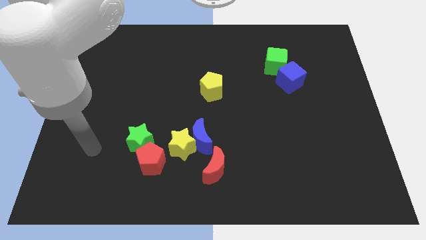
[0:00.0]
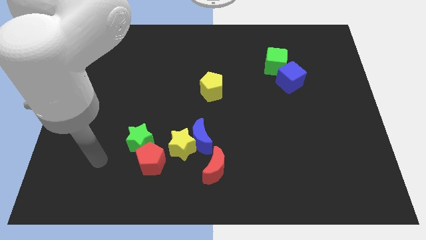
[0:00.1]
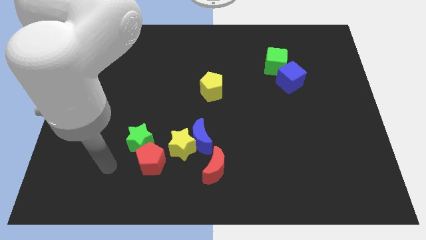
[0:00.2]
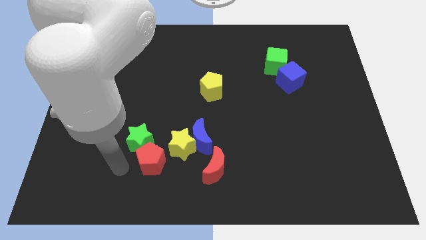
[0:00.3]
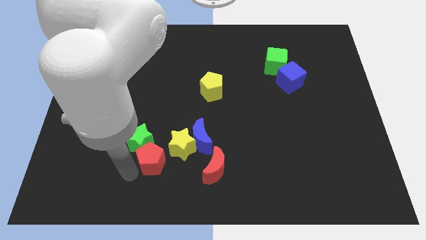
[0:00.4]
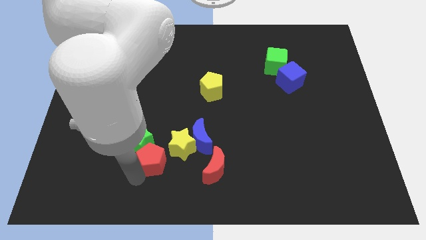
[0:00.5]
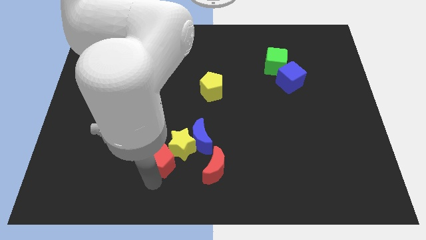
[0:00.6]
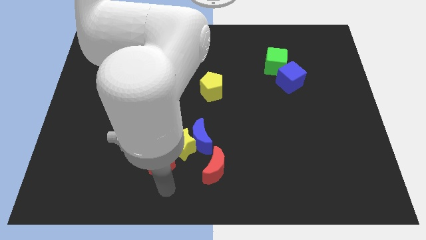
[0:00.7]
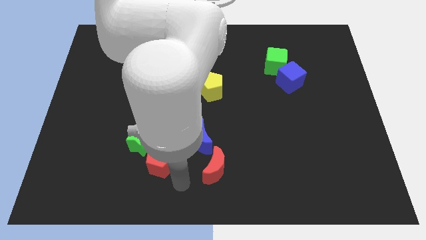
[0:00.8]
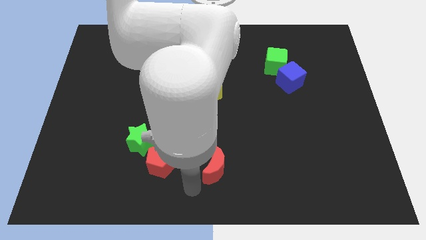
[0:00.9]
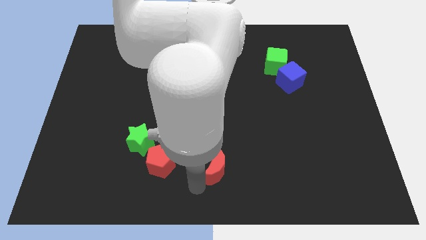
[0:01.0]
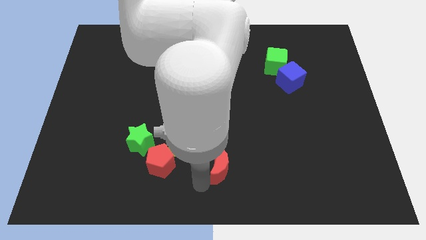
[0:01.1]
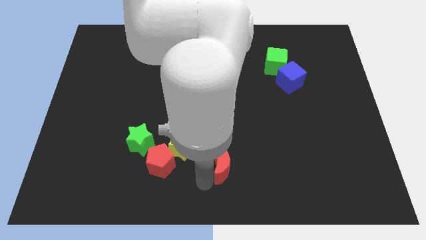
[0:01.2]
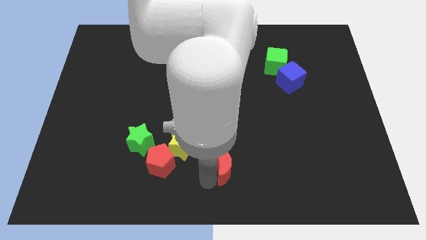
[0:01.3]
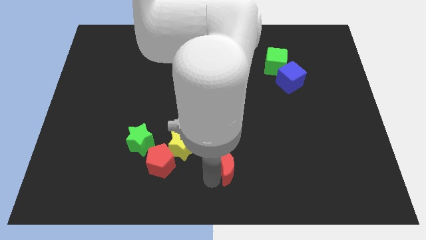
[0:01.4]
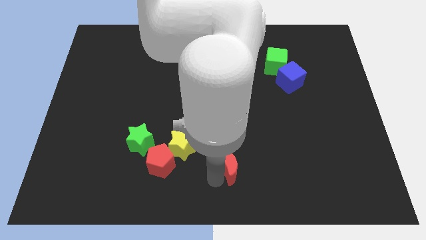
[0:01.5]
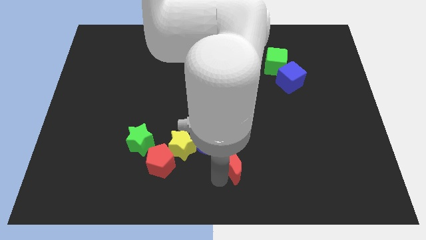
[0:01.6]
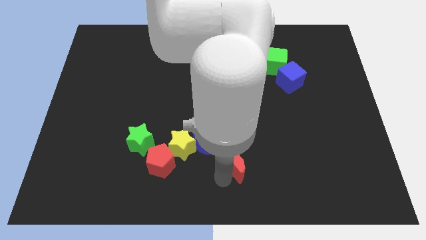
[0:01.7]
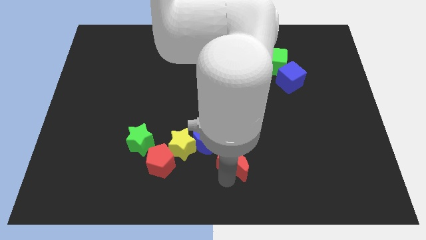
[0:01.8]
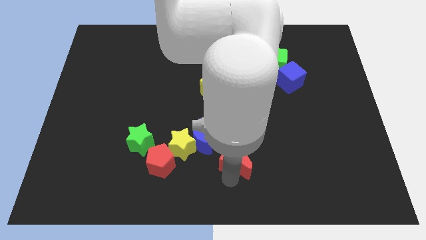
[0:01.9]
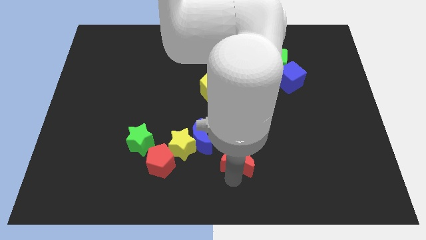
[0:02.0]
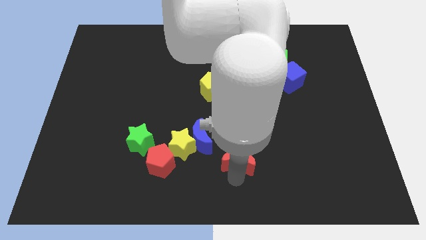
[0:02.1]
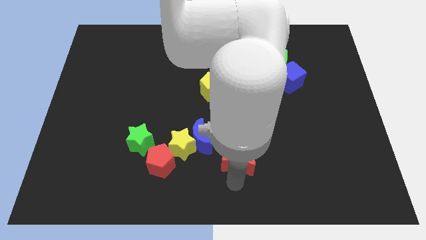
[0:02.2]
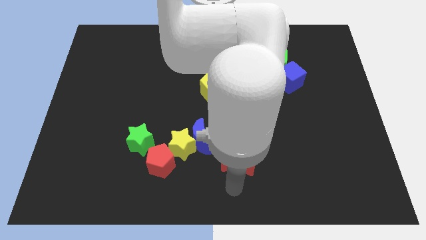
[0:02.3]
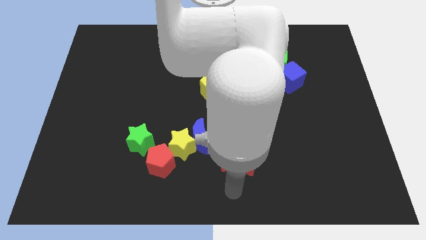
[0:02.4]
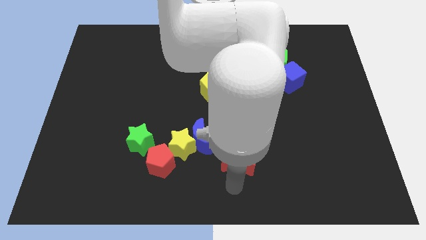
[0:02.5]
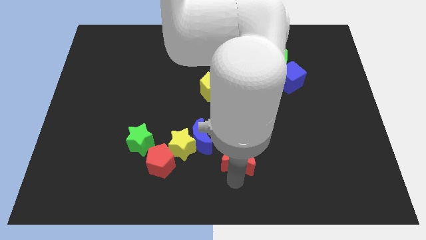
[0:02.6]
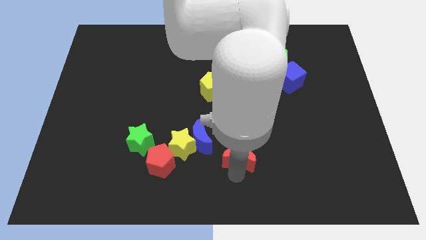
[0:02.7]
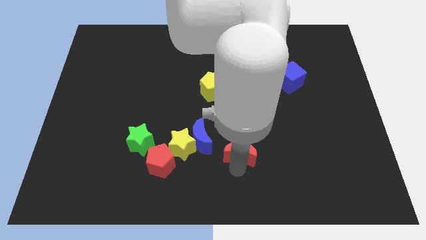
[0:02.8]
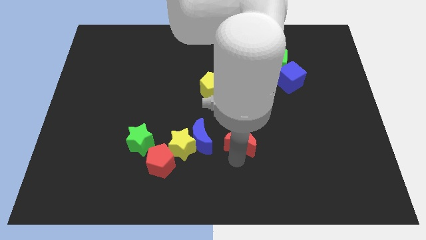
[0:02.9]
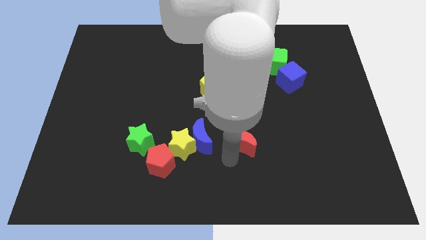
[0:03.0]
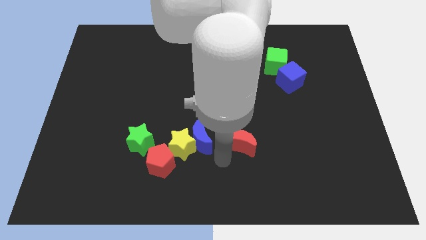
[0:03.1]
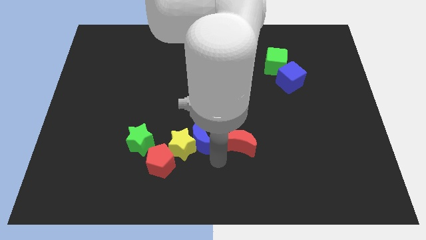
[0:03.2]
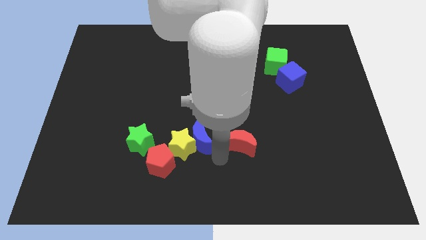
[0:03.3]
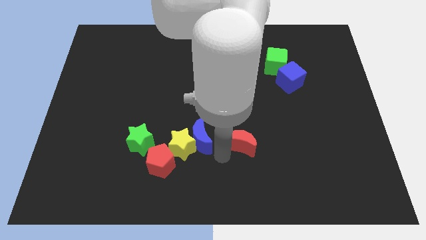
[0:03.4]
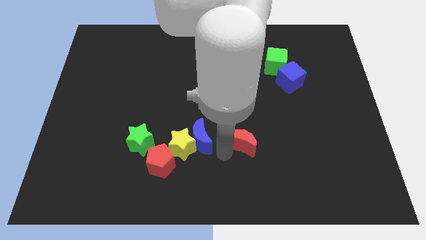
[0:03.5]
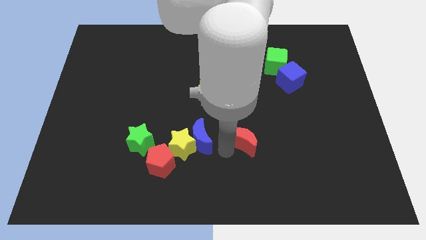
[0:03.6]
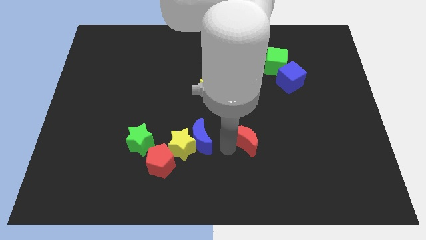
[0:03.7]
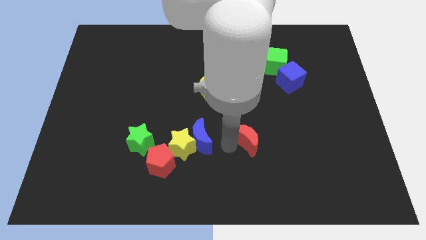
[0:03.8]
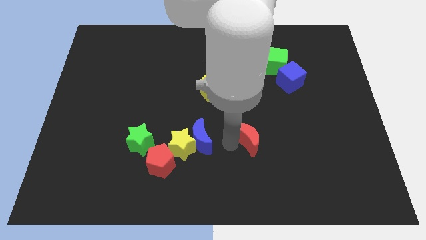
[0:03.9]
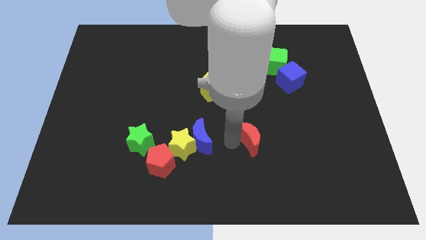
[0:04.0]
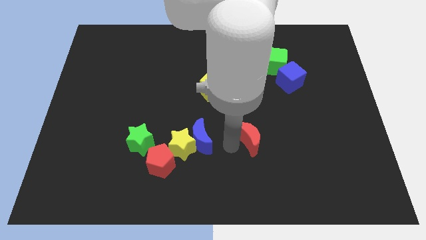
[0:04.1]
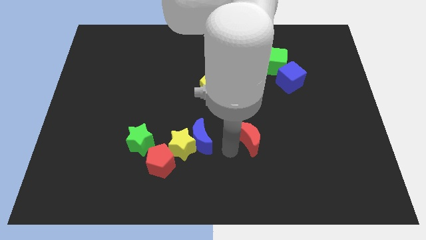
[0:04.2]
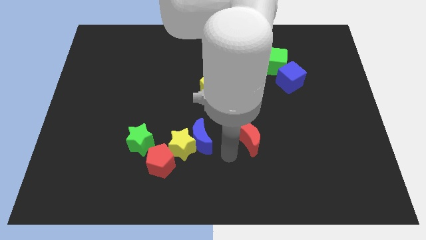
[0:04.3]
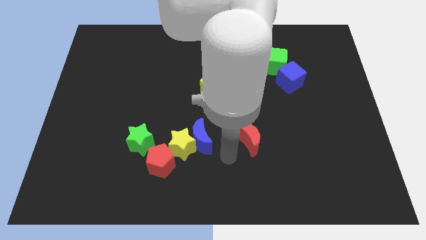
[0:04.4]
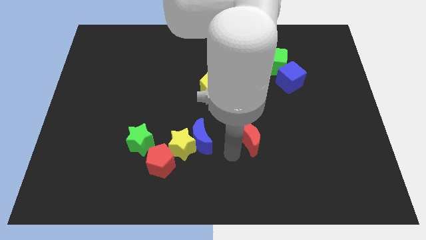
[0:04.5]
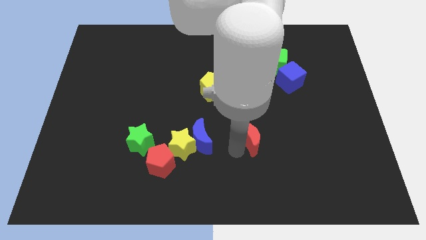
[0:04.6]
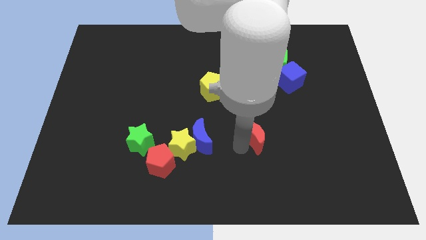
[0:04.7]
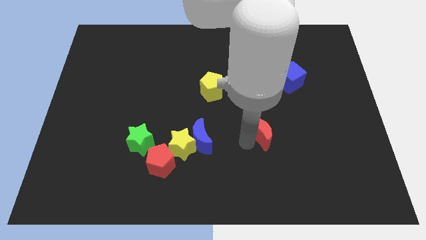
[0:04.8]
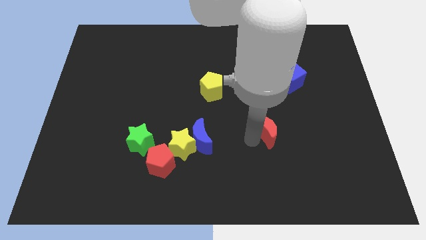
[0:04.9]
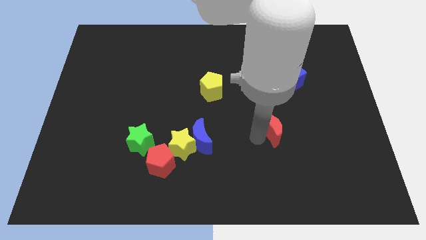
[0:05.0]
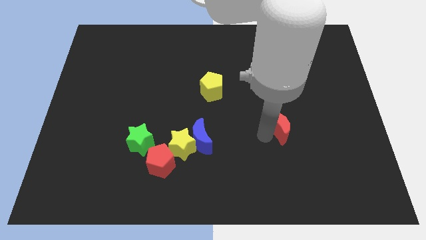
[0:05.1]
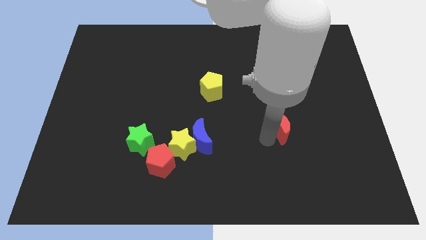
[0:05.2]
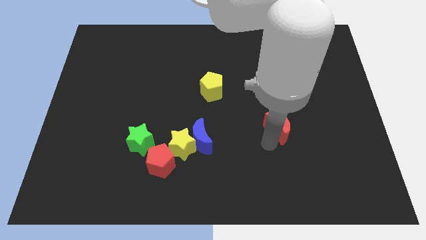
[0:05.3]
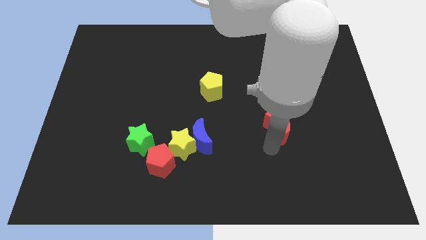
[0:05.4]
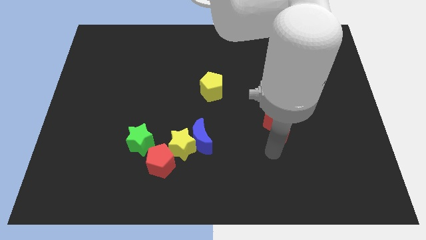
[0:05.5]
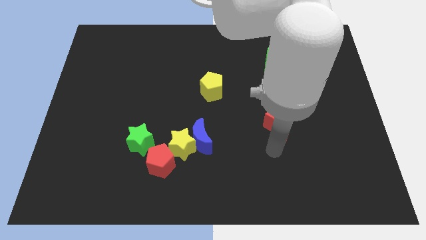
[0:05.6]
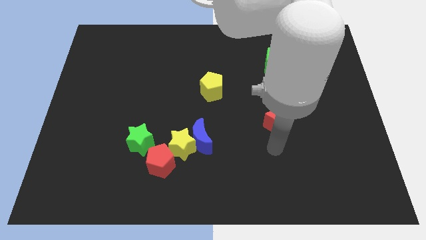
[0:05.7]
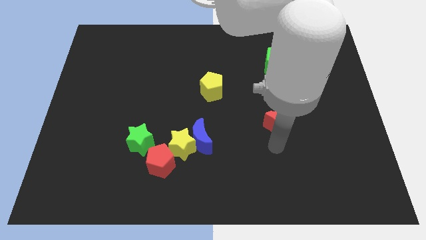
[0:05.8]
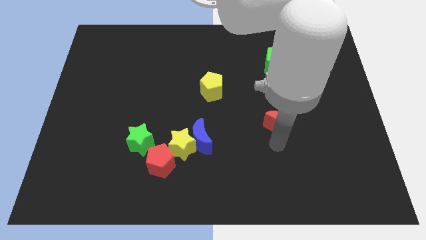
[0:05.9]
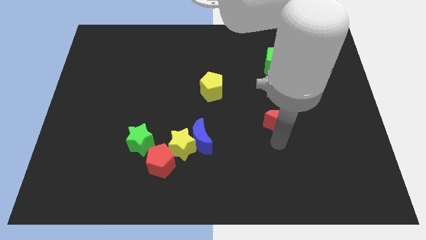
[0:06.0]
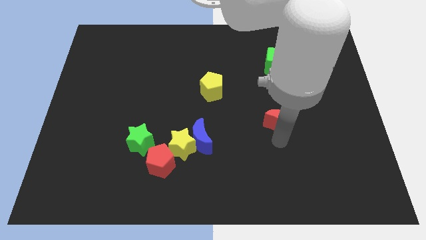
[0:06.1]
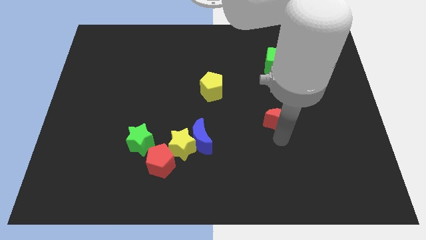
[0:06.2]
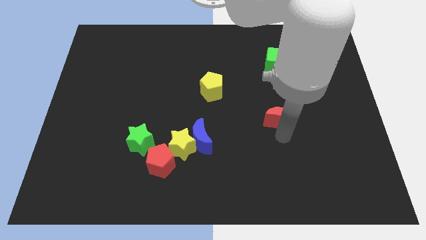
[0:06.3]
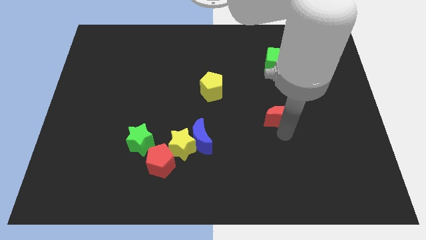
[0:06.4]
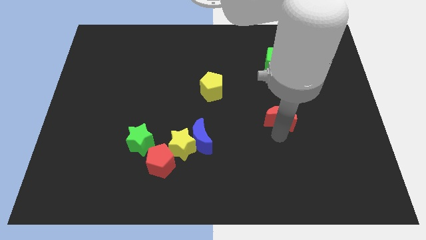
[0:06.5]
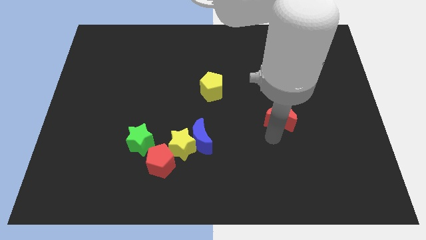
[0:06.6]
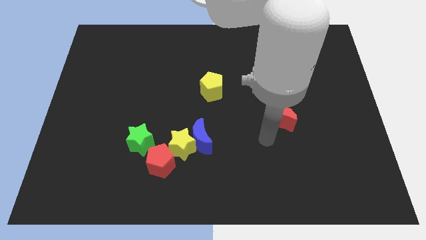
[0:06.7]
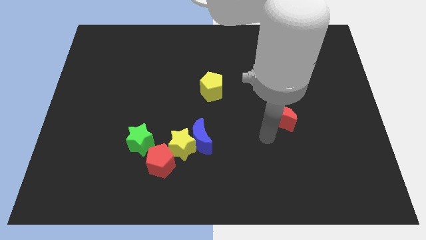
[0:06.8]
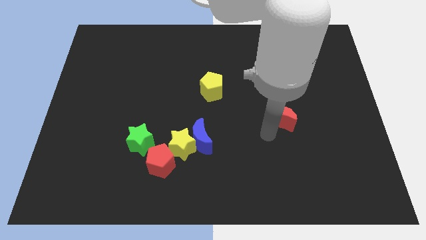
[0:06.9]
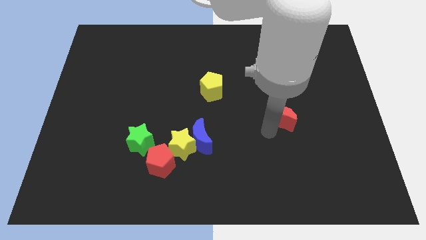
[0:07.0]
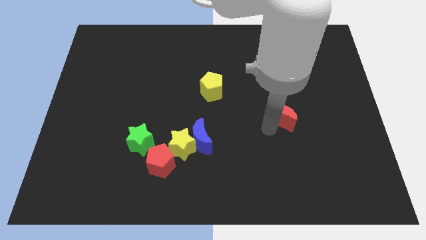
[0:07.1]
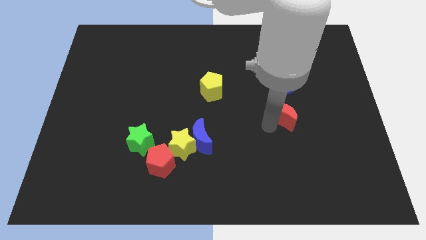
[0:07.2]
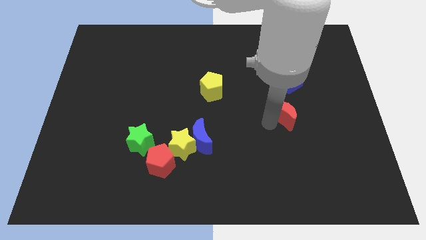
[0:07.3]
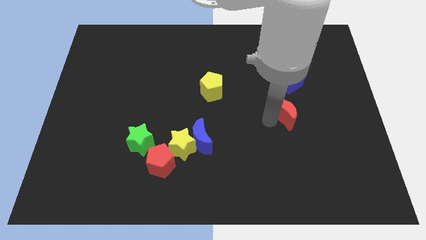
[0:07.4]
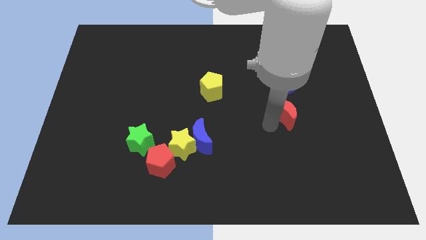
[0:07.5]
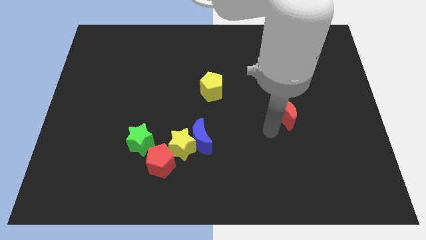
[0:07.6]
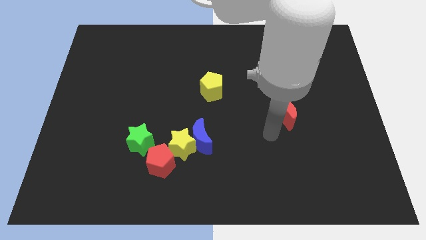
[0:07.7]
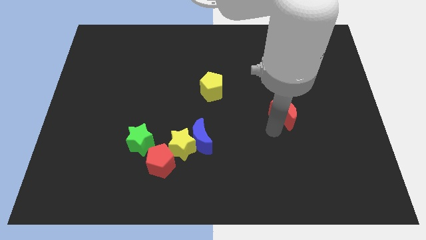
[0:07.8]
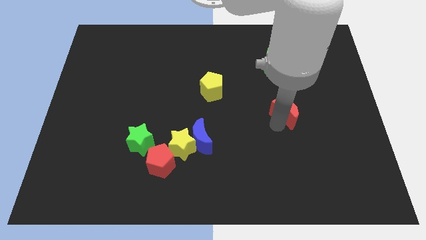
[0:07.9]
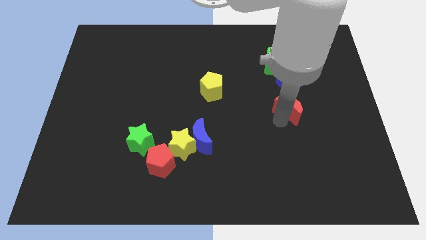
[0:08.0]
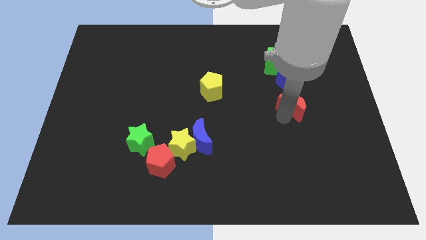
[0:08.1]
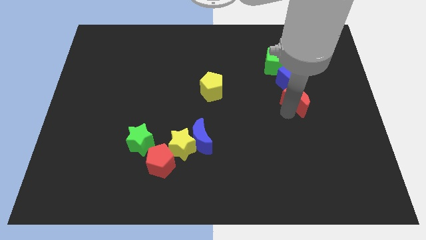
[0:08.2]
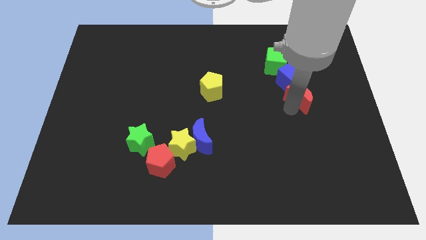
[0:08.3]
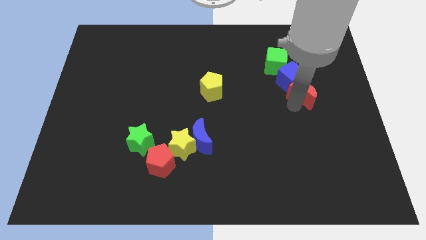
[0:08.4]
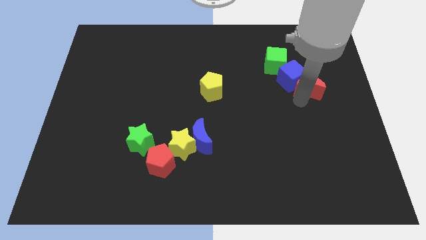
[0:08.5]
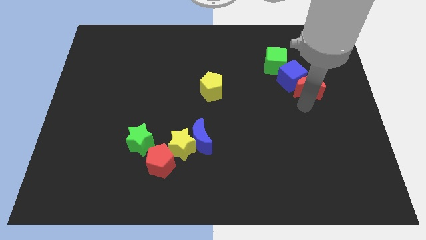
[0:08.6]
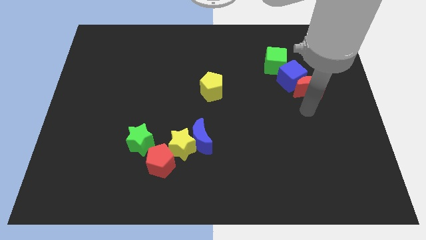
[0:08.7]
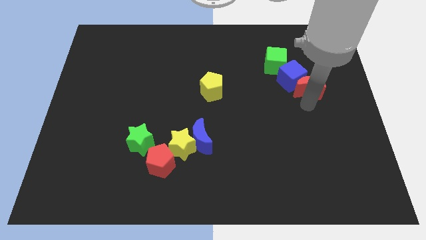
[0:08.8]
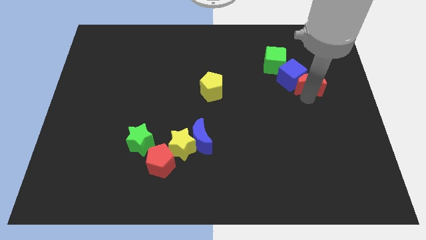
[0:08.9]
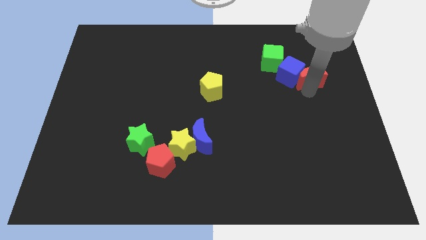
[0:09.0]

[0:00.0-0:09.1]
slide the red moon to the top right side of the blue cube
